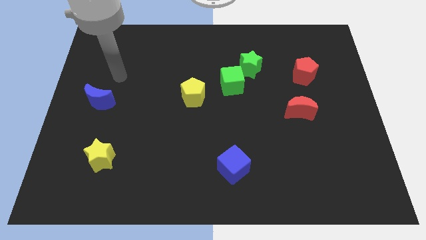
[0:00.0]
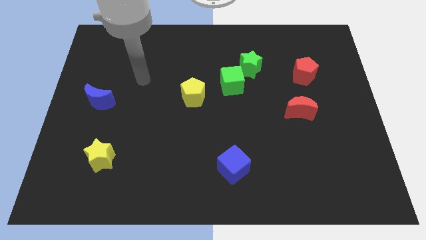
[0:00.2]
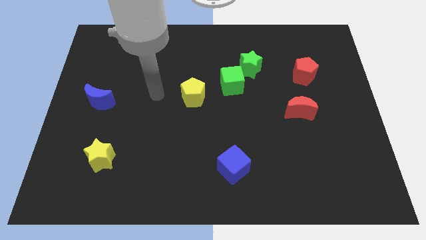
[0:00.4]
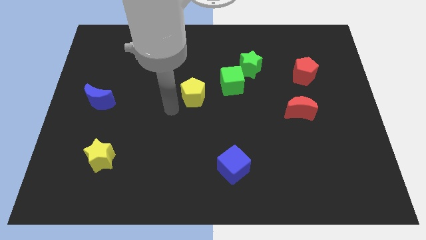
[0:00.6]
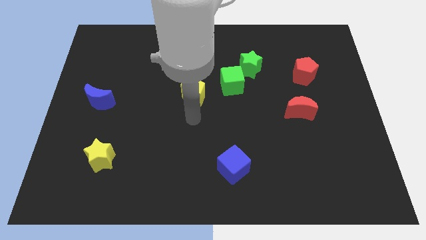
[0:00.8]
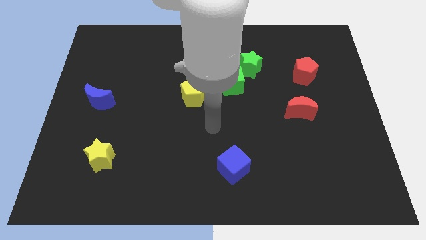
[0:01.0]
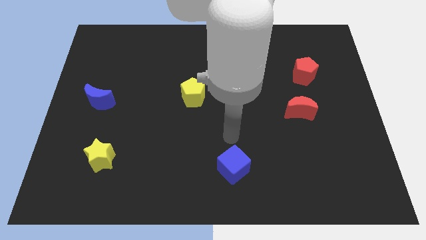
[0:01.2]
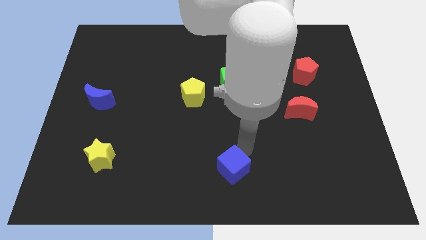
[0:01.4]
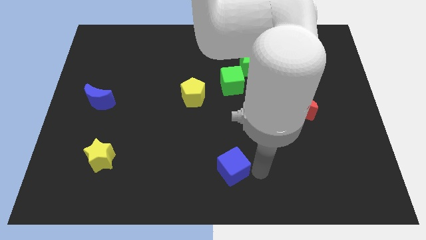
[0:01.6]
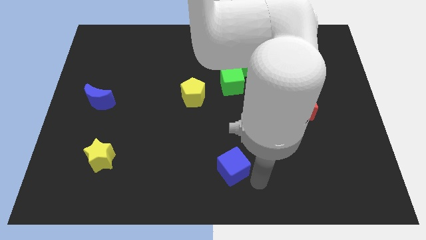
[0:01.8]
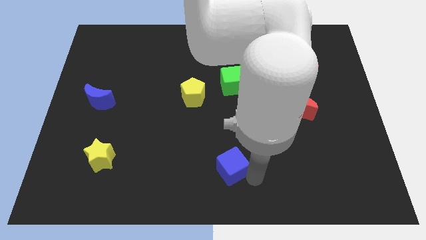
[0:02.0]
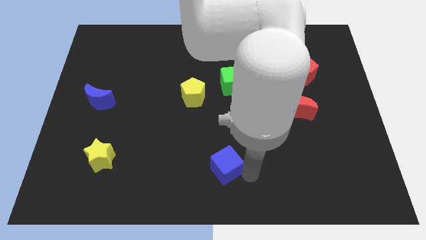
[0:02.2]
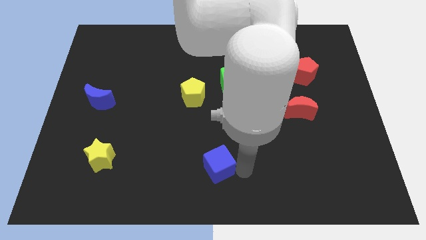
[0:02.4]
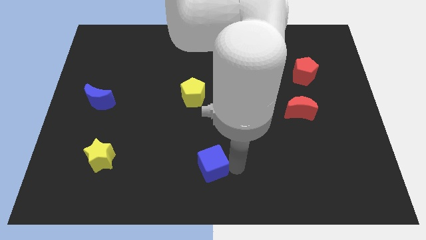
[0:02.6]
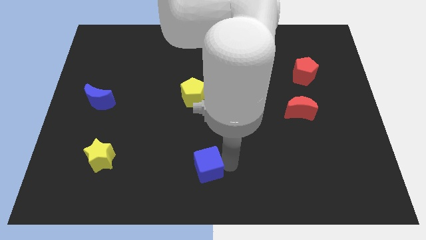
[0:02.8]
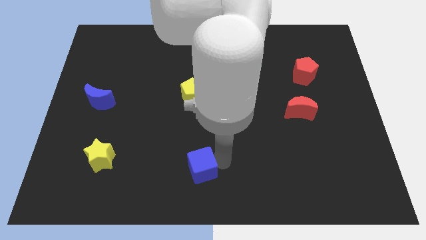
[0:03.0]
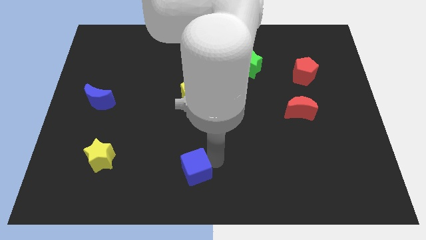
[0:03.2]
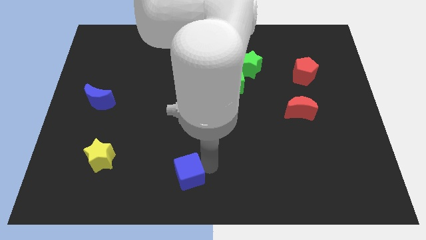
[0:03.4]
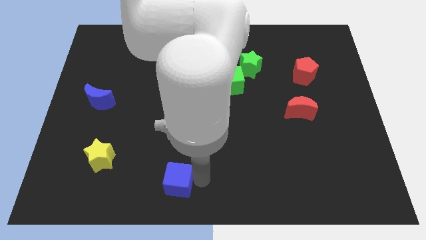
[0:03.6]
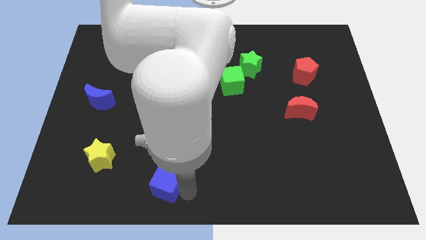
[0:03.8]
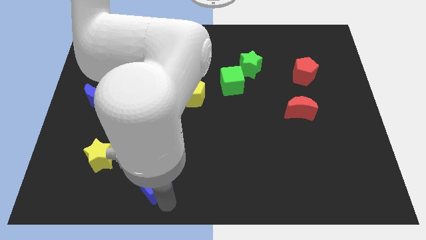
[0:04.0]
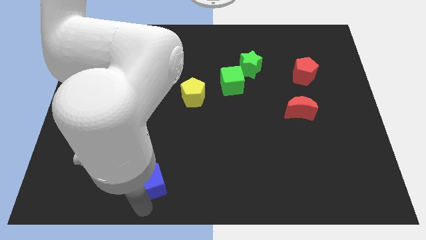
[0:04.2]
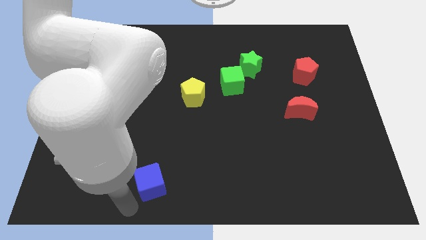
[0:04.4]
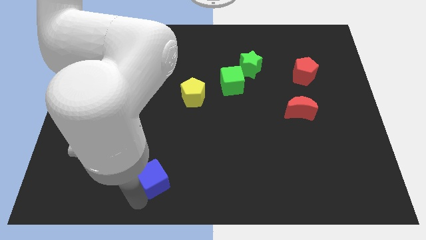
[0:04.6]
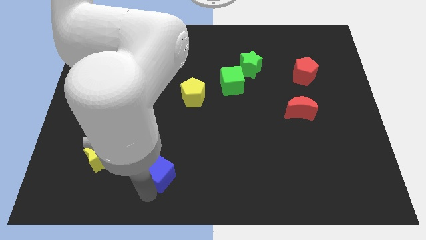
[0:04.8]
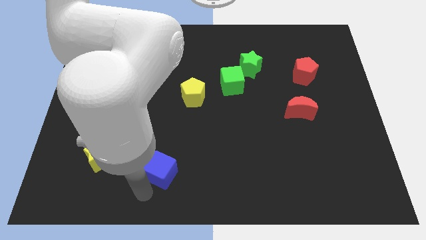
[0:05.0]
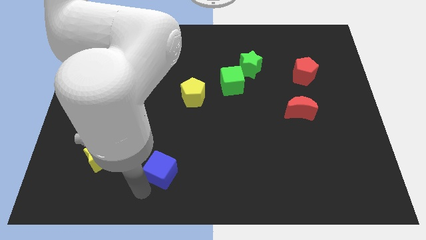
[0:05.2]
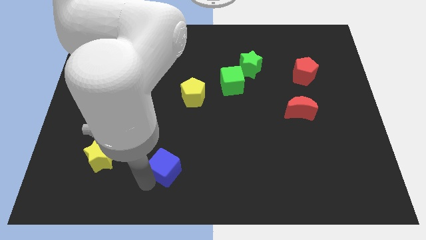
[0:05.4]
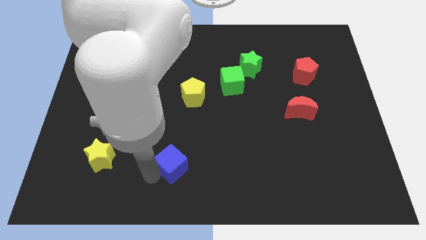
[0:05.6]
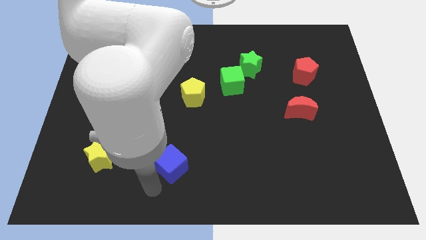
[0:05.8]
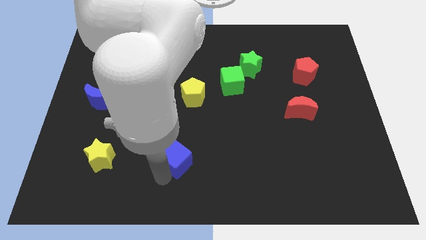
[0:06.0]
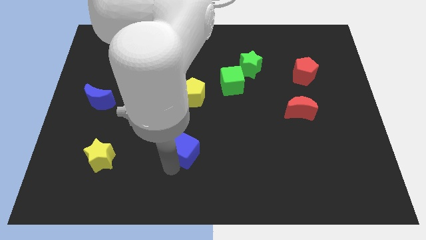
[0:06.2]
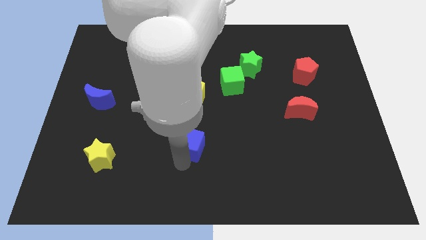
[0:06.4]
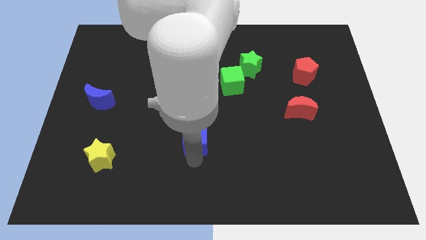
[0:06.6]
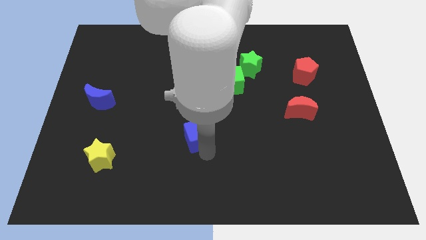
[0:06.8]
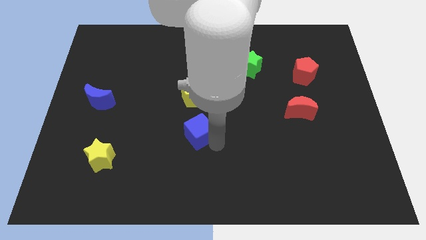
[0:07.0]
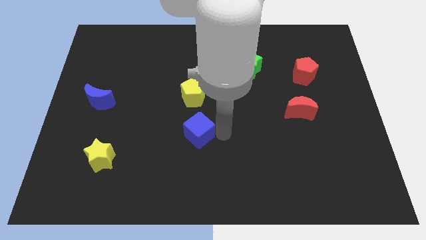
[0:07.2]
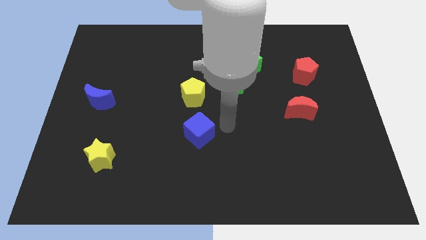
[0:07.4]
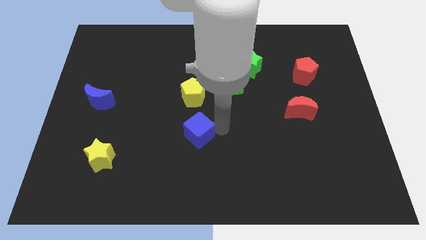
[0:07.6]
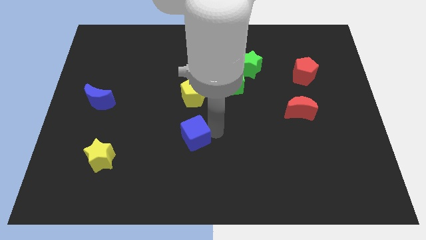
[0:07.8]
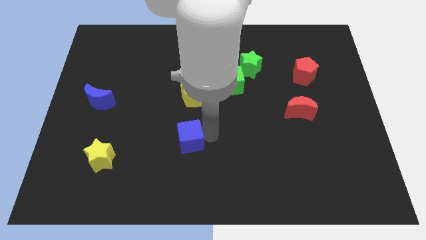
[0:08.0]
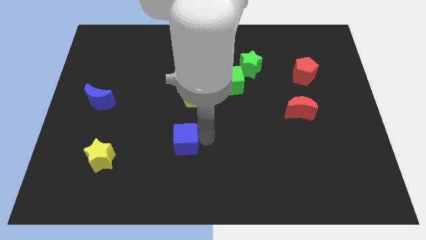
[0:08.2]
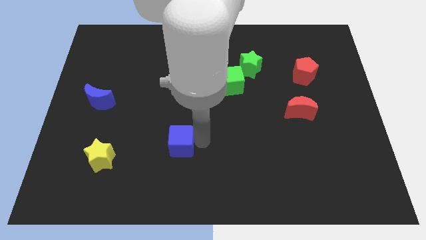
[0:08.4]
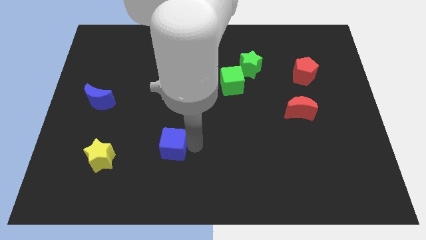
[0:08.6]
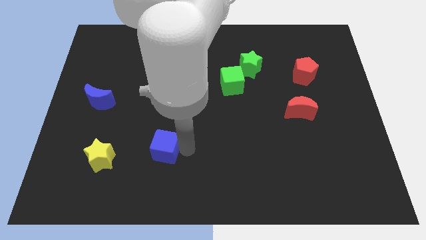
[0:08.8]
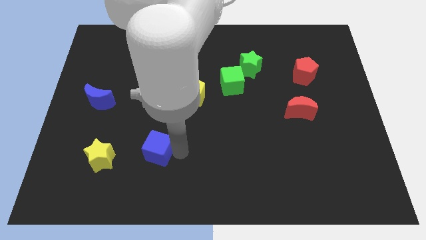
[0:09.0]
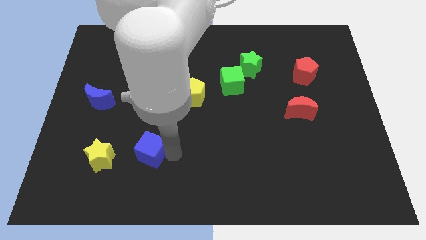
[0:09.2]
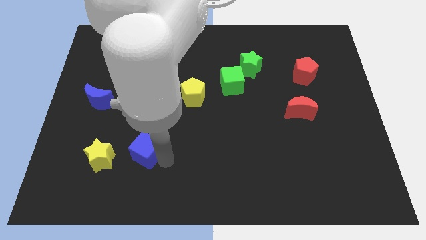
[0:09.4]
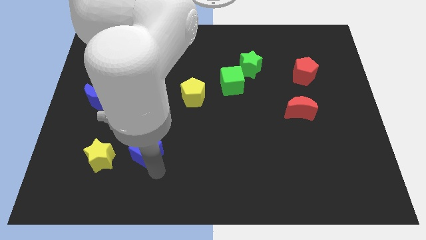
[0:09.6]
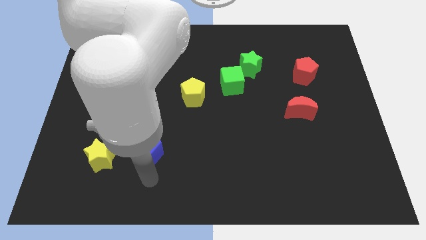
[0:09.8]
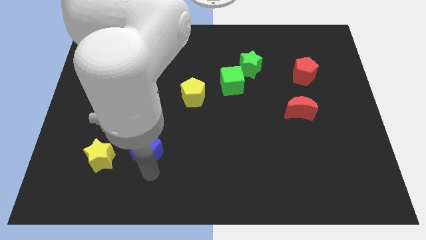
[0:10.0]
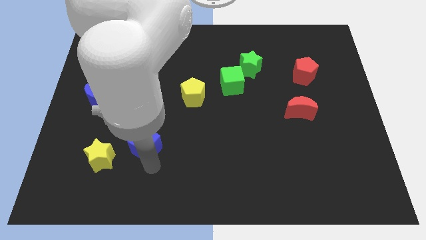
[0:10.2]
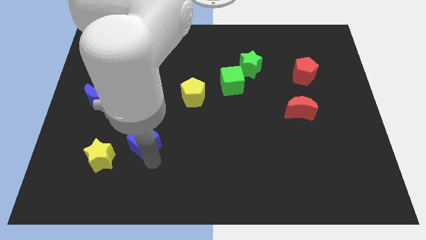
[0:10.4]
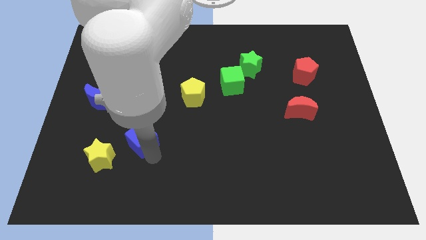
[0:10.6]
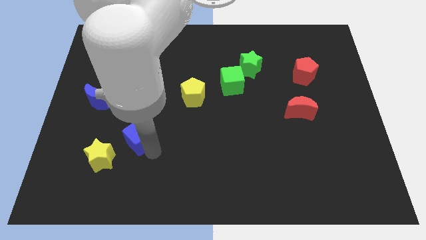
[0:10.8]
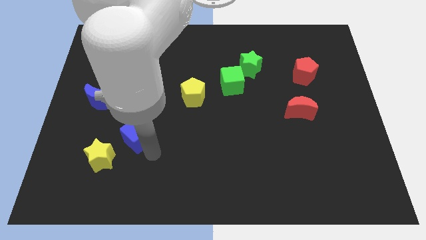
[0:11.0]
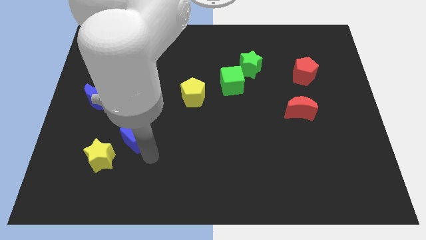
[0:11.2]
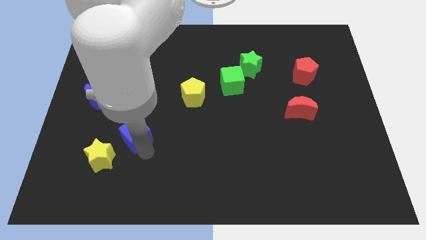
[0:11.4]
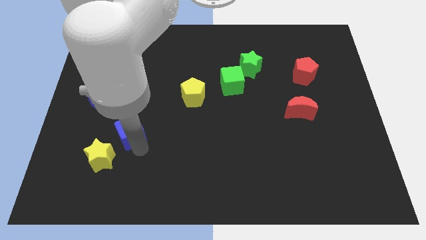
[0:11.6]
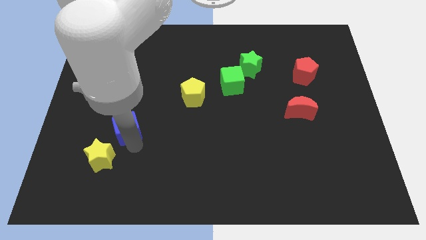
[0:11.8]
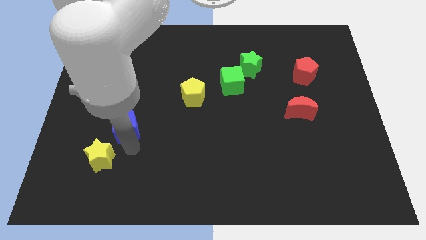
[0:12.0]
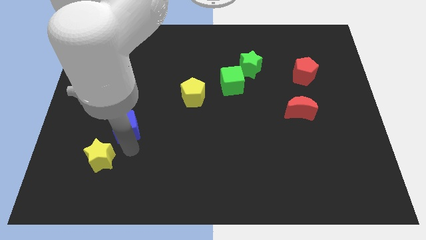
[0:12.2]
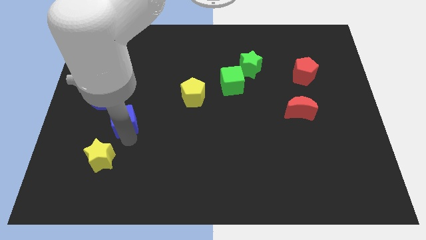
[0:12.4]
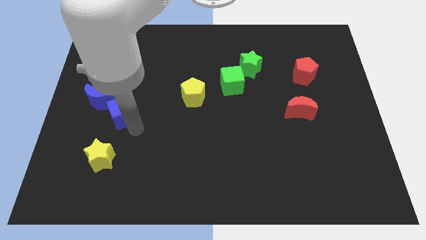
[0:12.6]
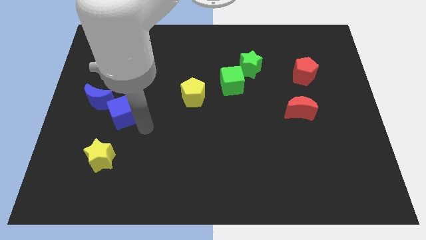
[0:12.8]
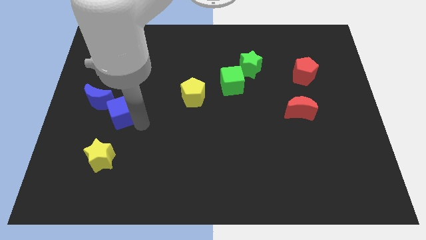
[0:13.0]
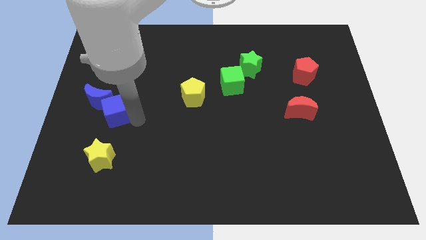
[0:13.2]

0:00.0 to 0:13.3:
slide the blue cube to the blue moon
